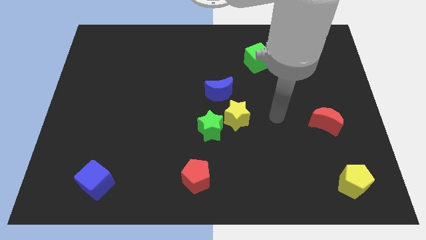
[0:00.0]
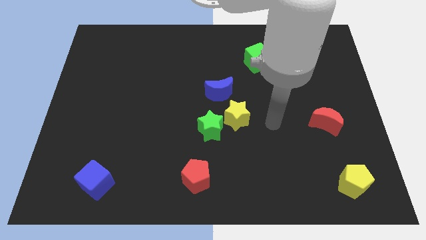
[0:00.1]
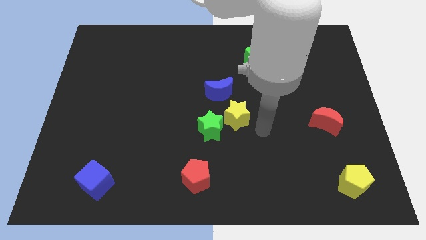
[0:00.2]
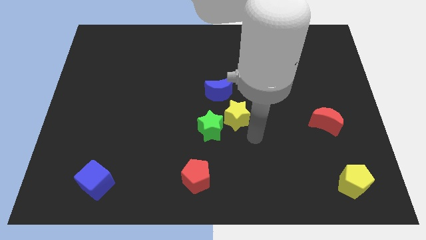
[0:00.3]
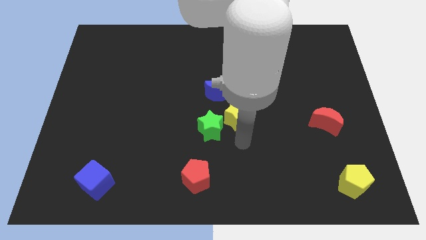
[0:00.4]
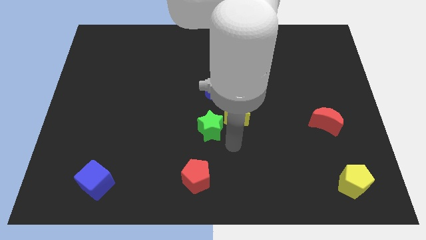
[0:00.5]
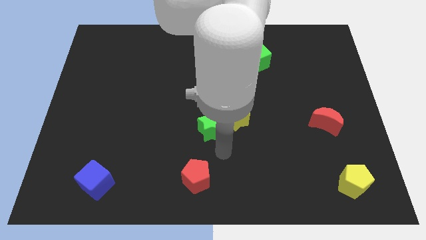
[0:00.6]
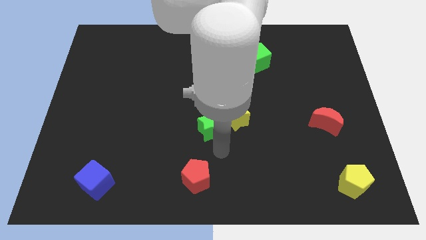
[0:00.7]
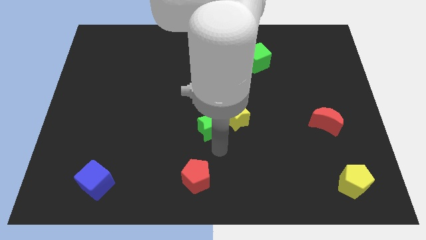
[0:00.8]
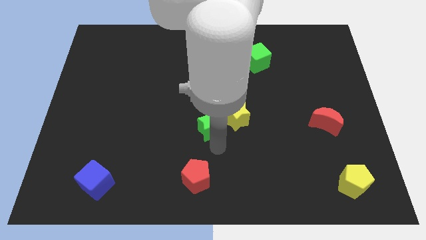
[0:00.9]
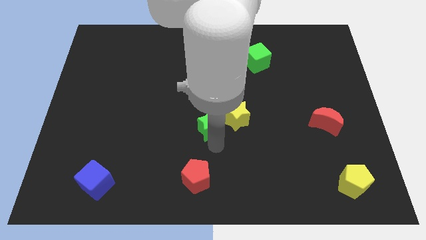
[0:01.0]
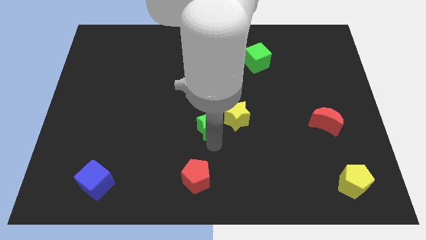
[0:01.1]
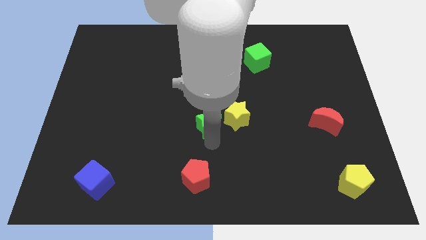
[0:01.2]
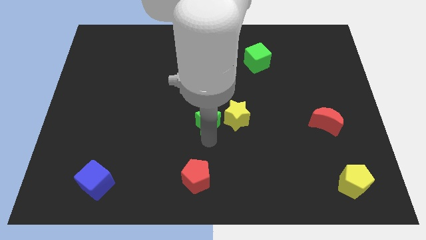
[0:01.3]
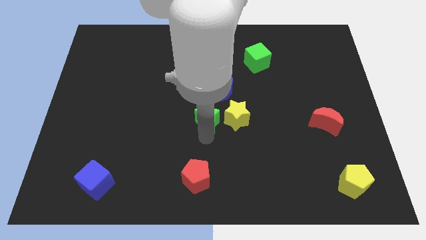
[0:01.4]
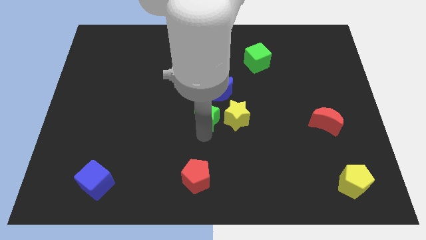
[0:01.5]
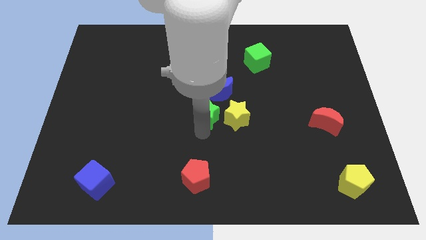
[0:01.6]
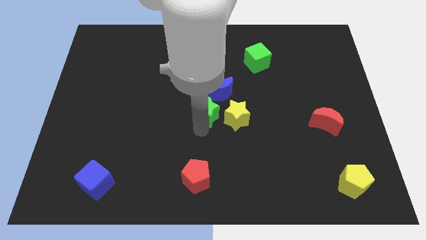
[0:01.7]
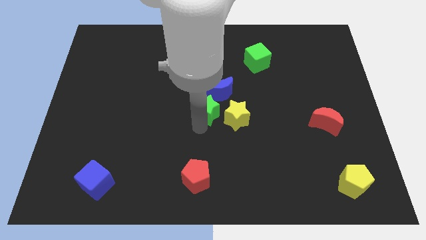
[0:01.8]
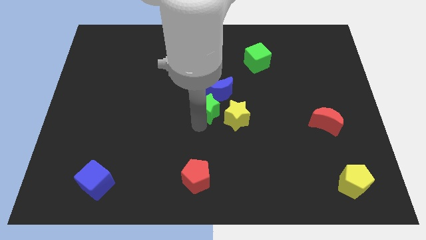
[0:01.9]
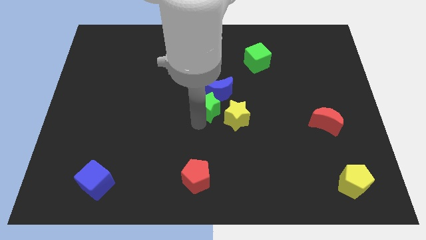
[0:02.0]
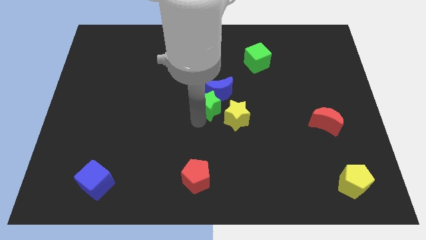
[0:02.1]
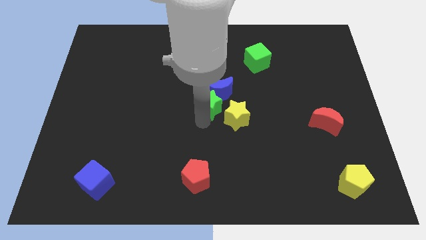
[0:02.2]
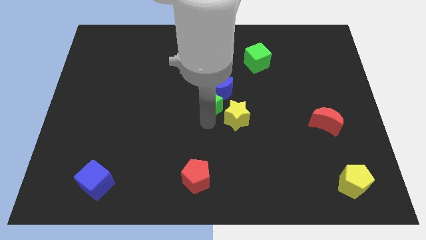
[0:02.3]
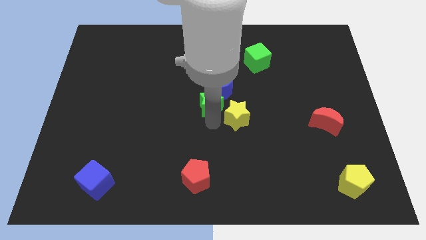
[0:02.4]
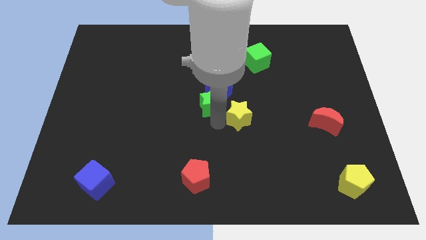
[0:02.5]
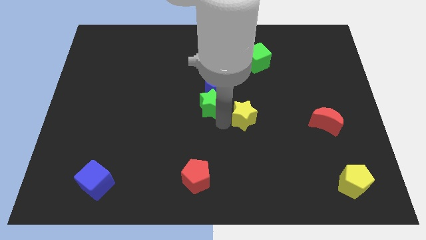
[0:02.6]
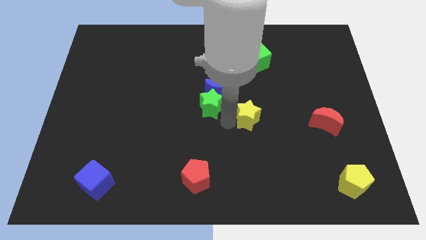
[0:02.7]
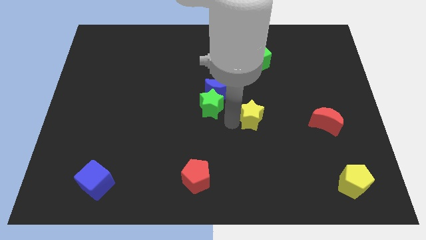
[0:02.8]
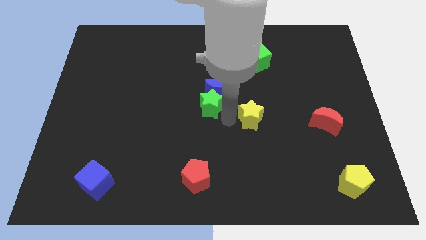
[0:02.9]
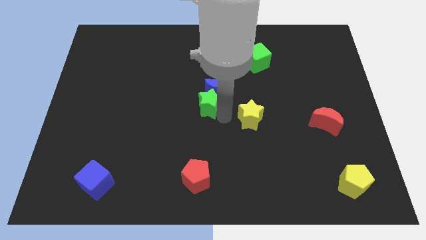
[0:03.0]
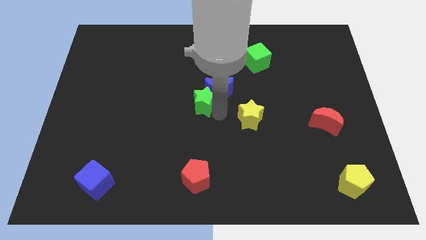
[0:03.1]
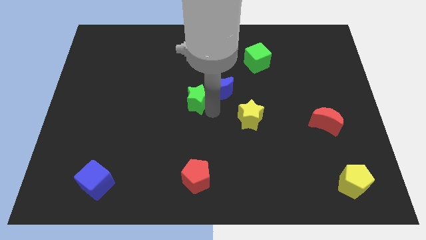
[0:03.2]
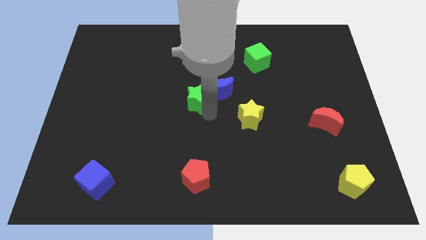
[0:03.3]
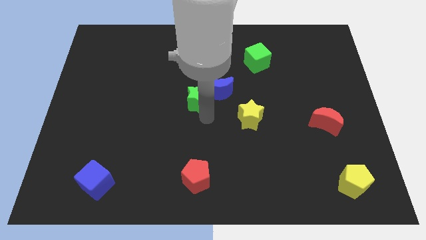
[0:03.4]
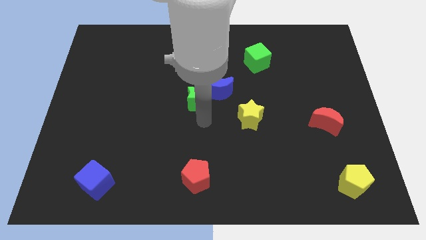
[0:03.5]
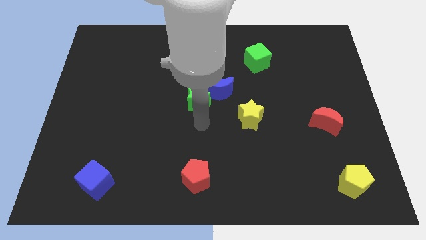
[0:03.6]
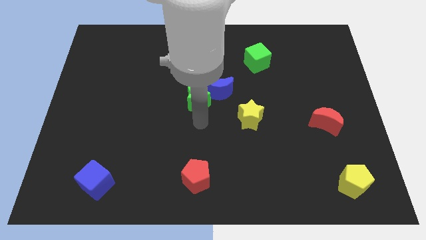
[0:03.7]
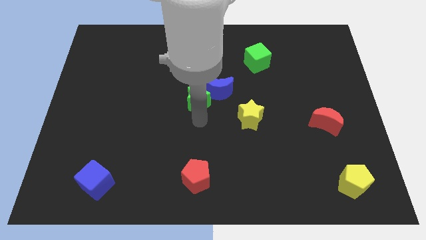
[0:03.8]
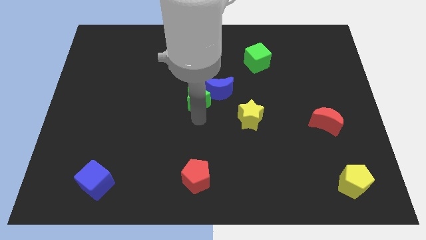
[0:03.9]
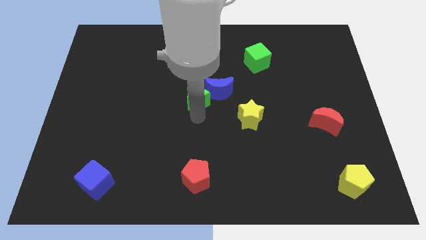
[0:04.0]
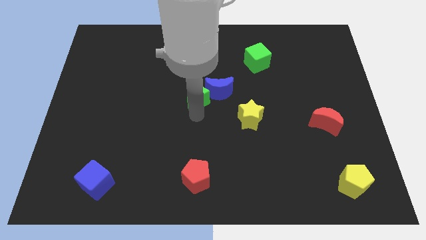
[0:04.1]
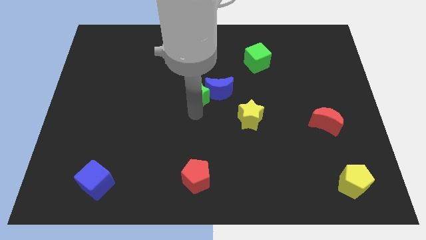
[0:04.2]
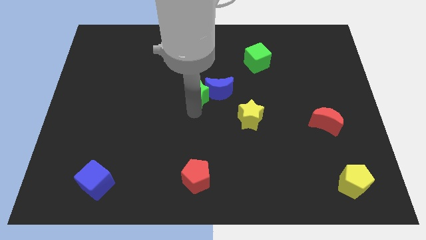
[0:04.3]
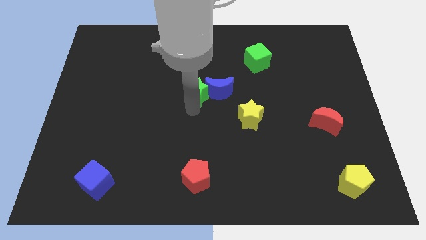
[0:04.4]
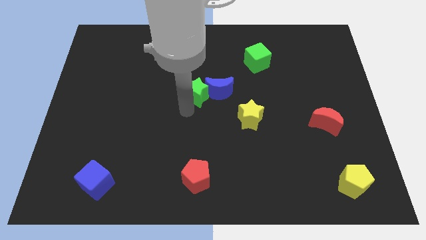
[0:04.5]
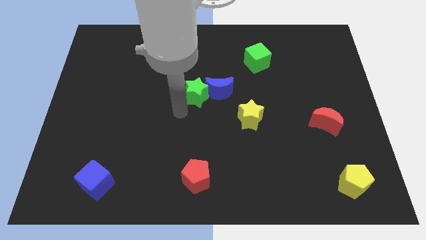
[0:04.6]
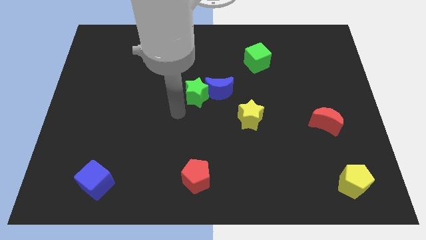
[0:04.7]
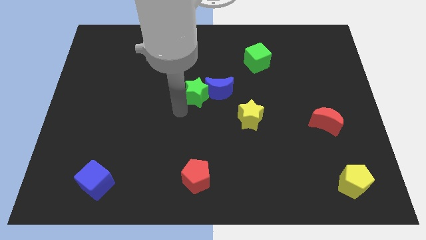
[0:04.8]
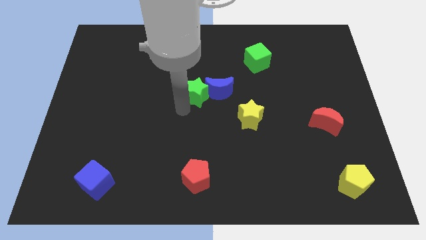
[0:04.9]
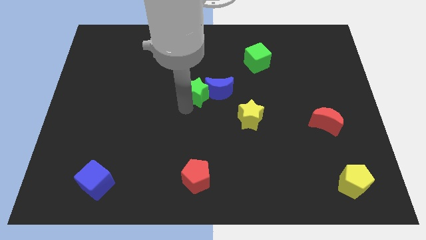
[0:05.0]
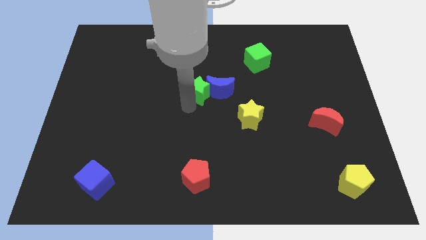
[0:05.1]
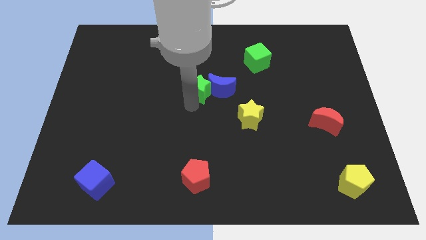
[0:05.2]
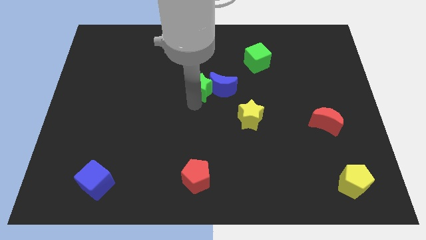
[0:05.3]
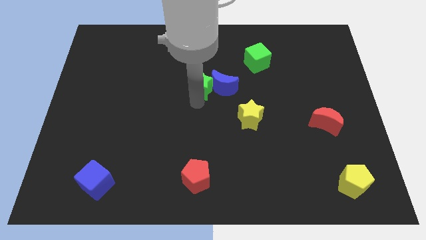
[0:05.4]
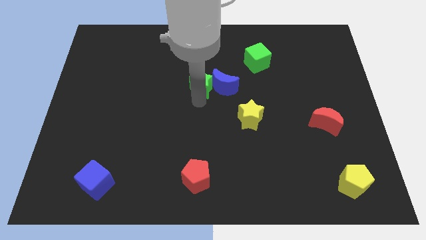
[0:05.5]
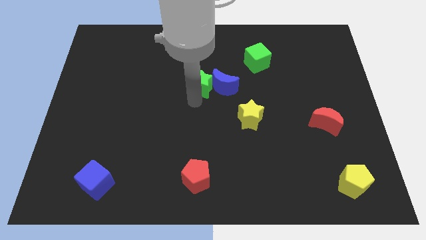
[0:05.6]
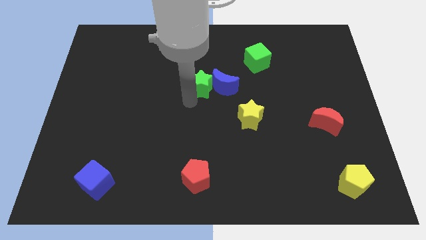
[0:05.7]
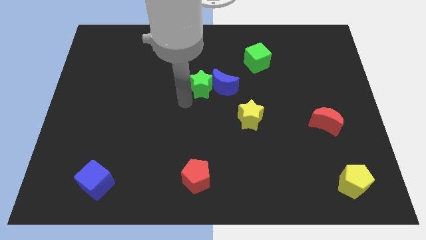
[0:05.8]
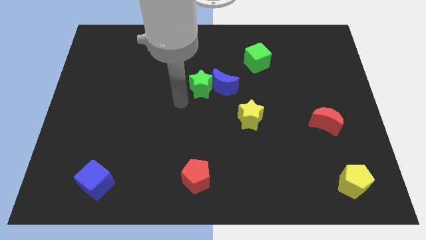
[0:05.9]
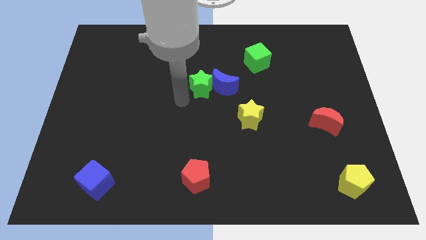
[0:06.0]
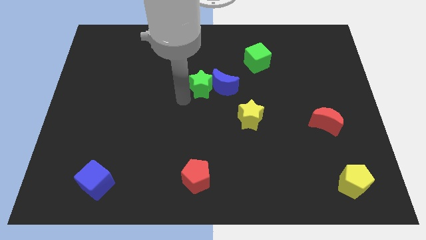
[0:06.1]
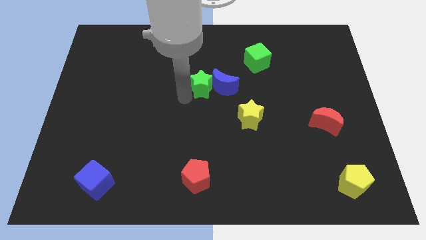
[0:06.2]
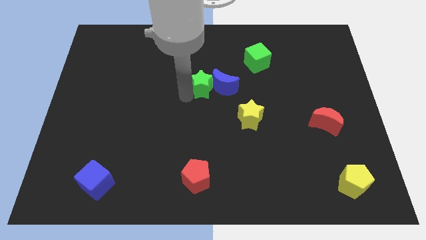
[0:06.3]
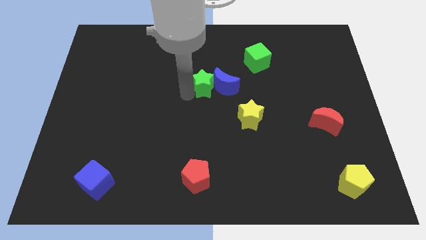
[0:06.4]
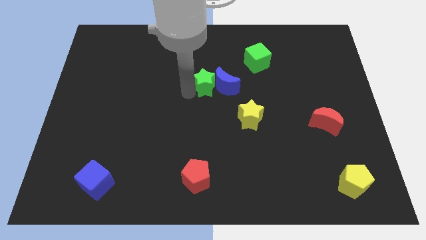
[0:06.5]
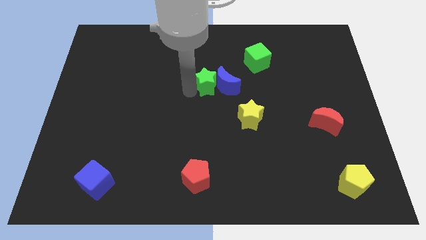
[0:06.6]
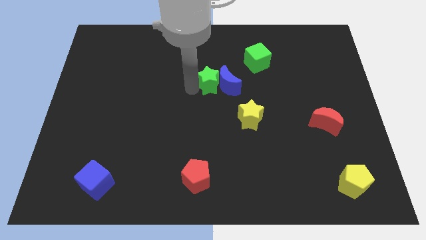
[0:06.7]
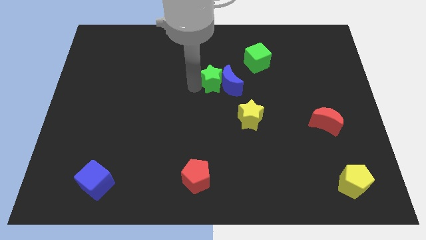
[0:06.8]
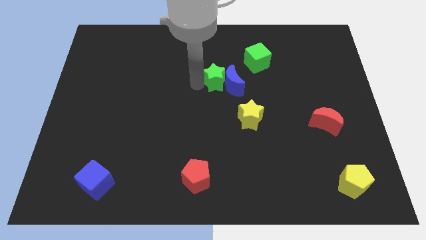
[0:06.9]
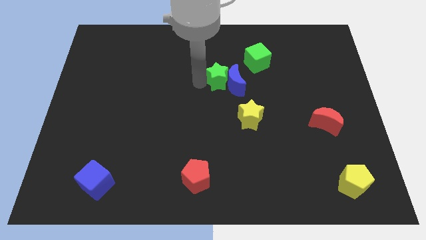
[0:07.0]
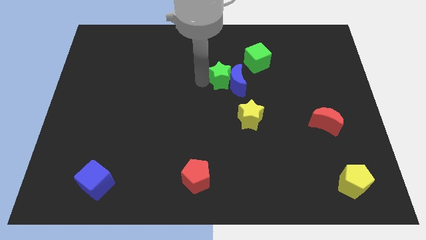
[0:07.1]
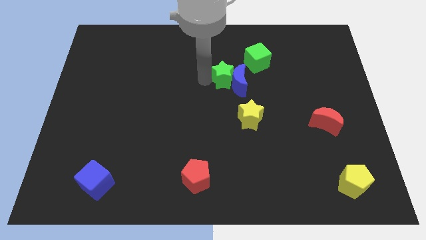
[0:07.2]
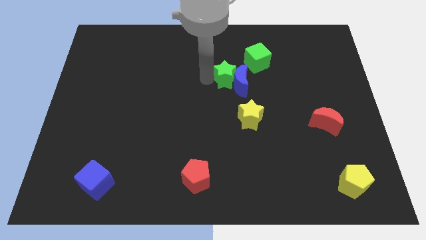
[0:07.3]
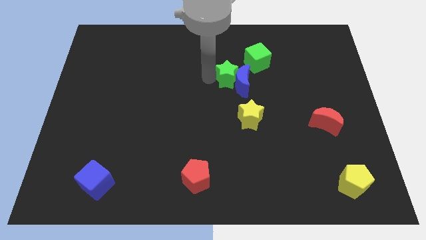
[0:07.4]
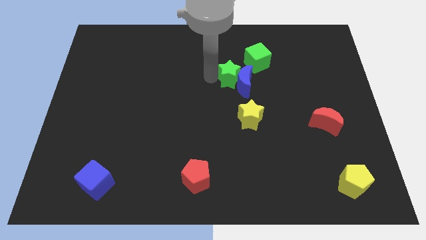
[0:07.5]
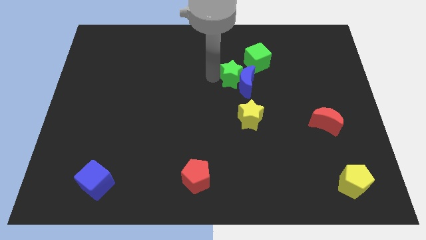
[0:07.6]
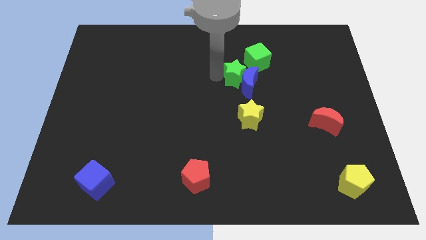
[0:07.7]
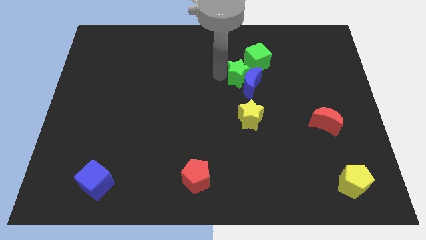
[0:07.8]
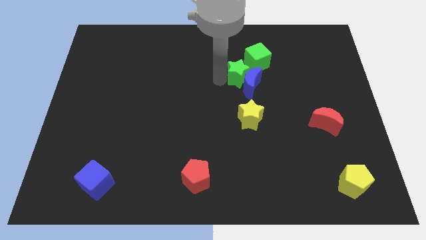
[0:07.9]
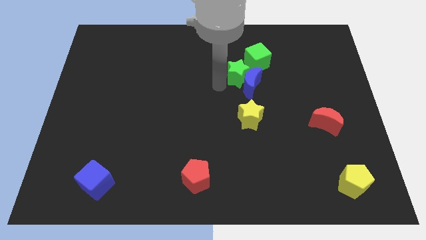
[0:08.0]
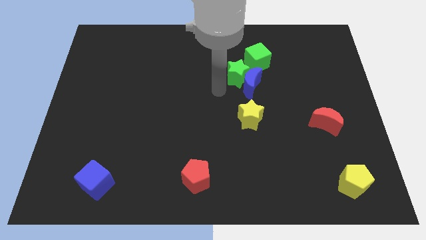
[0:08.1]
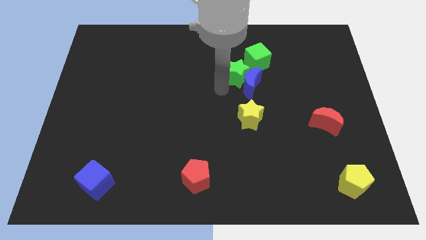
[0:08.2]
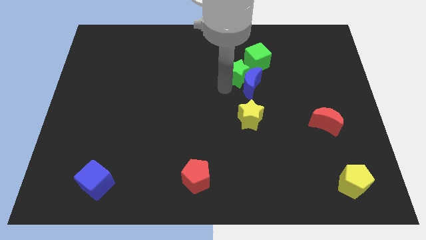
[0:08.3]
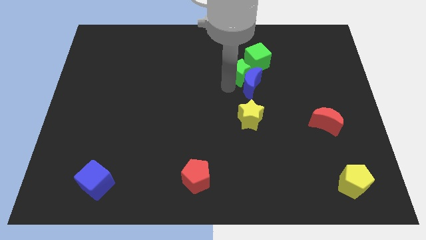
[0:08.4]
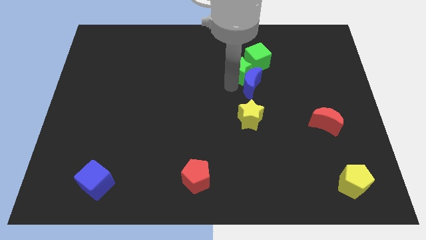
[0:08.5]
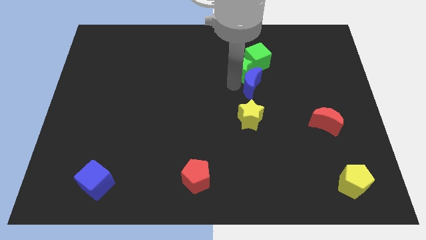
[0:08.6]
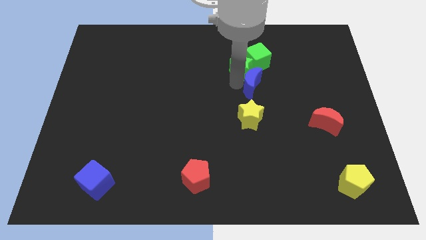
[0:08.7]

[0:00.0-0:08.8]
slide the green star close to the green cube
